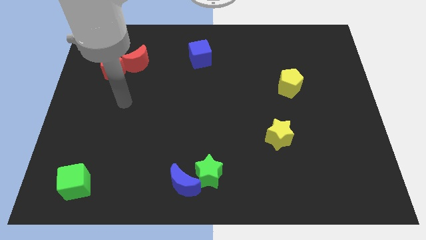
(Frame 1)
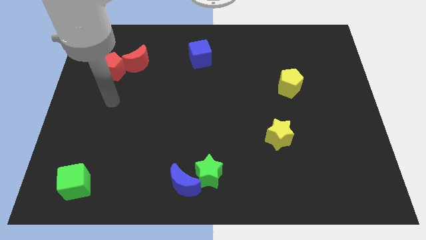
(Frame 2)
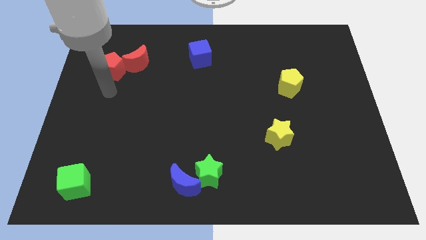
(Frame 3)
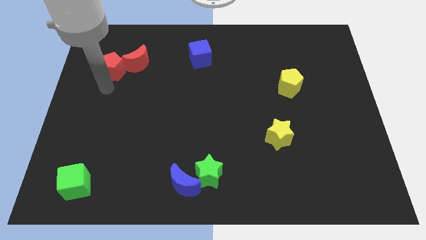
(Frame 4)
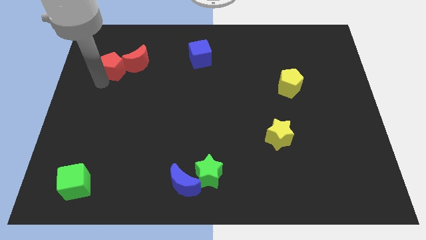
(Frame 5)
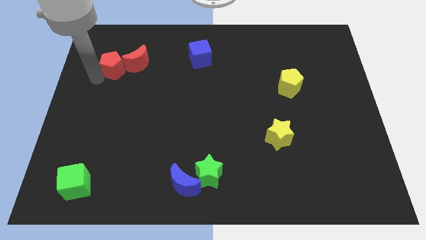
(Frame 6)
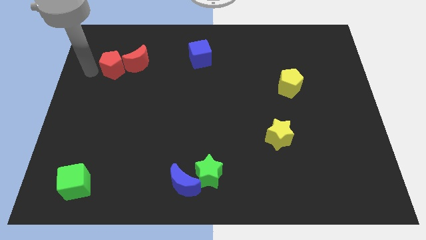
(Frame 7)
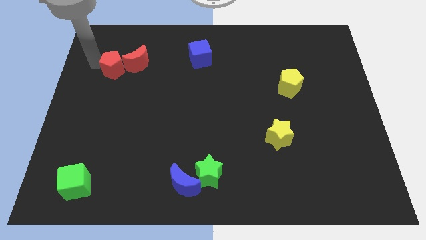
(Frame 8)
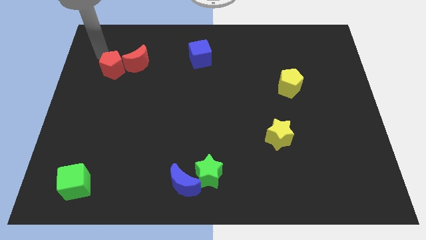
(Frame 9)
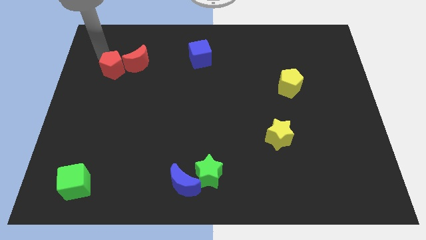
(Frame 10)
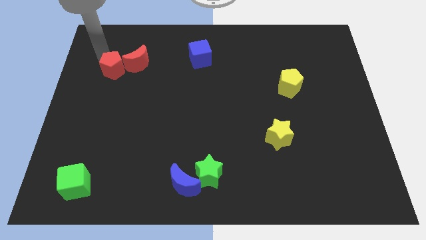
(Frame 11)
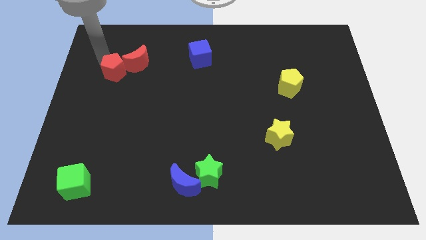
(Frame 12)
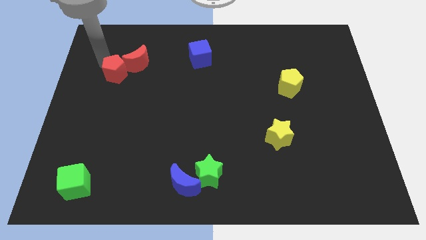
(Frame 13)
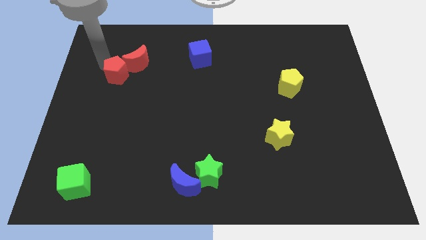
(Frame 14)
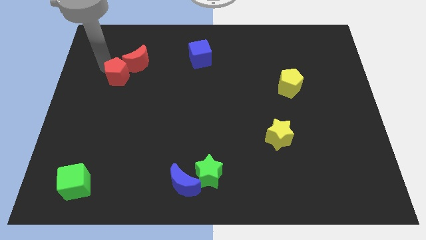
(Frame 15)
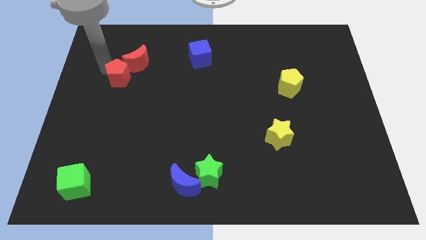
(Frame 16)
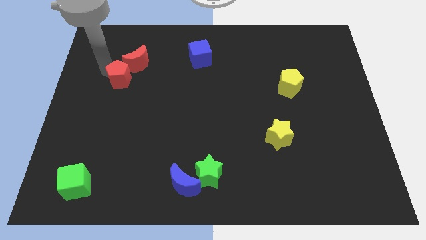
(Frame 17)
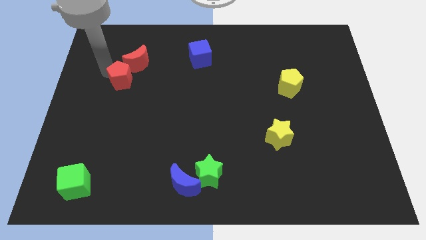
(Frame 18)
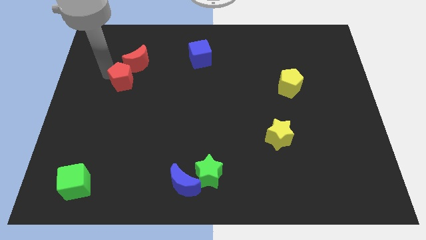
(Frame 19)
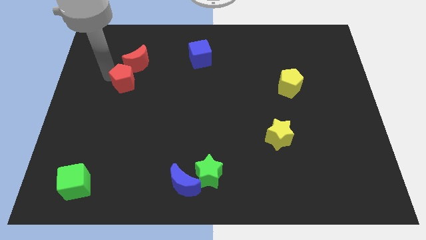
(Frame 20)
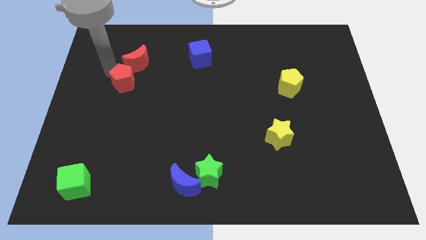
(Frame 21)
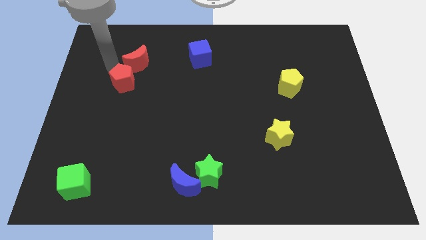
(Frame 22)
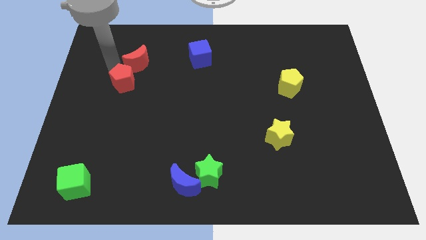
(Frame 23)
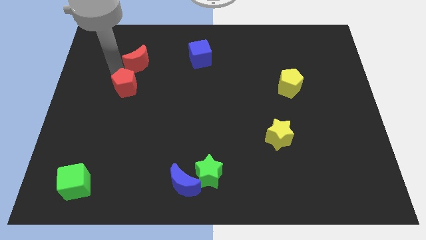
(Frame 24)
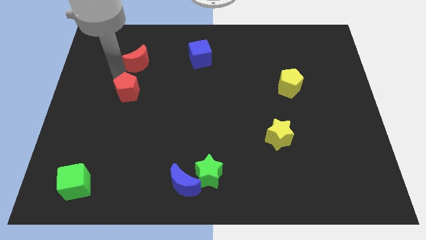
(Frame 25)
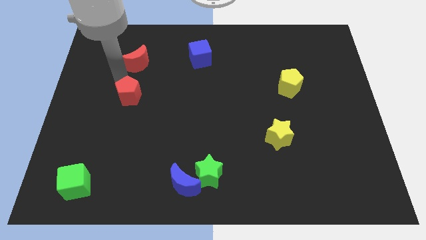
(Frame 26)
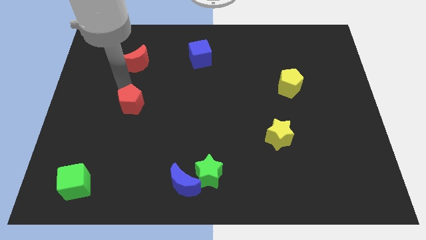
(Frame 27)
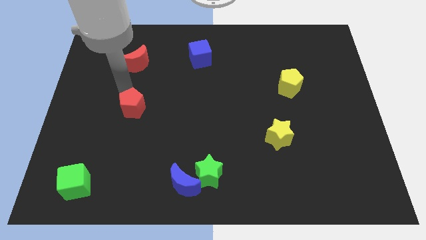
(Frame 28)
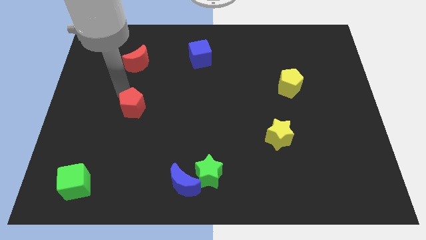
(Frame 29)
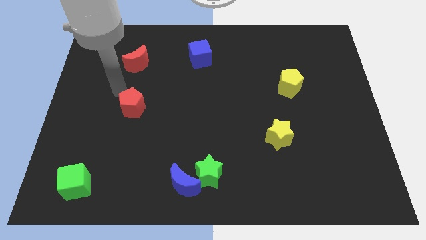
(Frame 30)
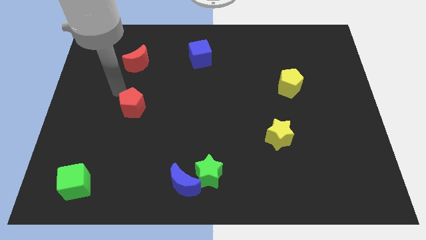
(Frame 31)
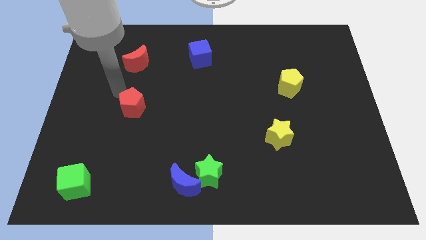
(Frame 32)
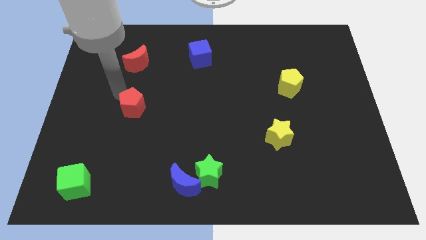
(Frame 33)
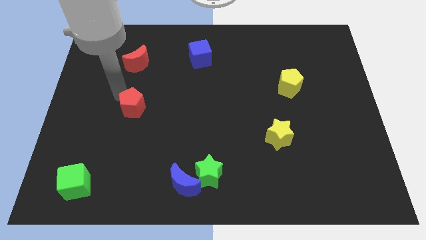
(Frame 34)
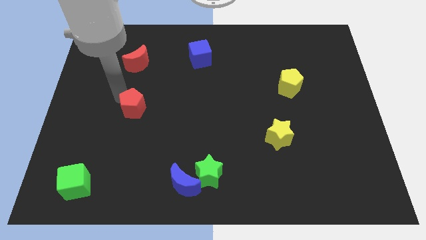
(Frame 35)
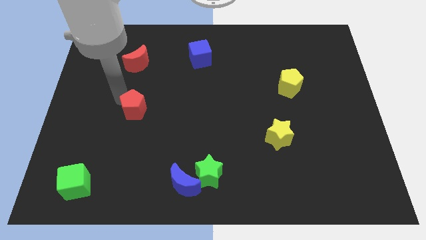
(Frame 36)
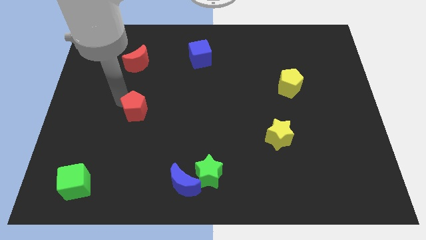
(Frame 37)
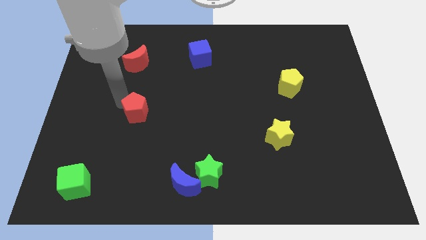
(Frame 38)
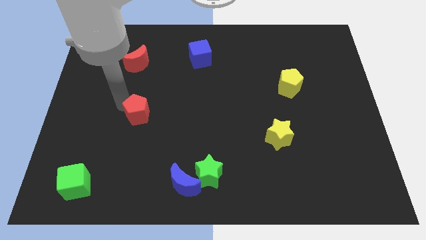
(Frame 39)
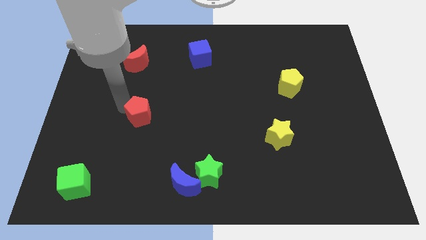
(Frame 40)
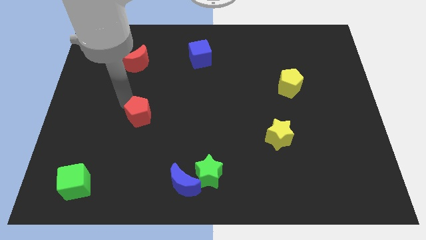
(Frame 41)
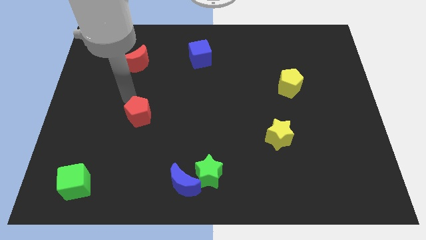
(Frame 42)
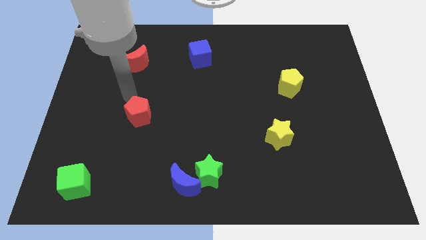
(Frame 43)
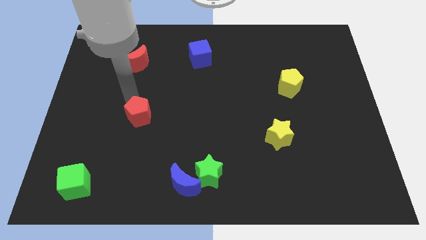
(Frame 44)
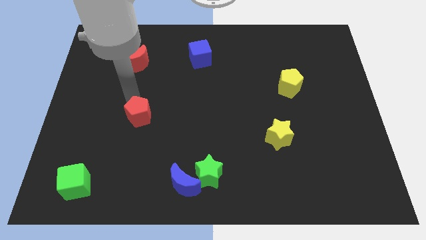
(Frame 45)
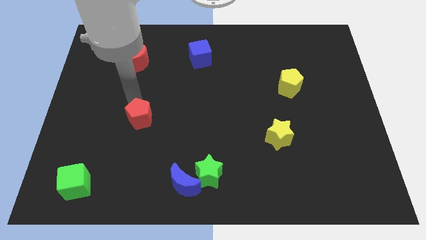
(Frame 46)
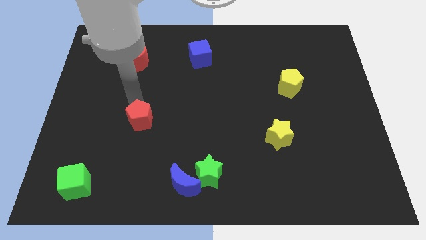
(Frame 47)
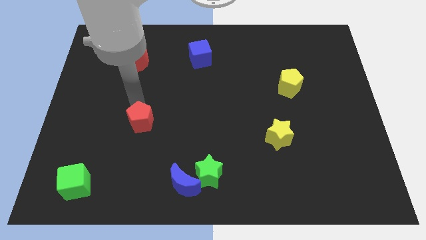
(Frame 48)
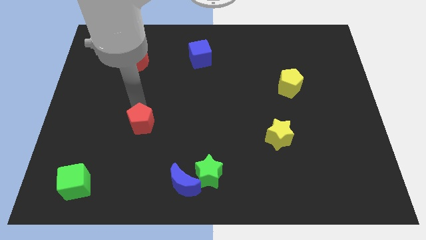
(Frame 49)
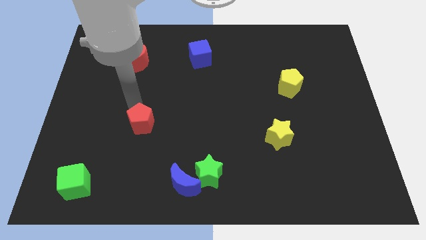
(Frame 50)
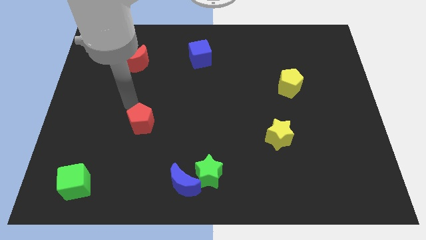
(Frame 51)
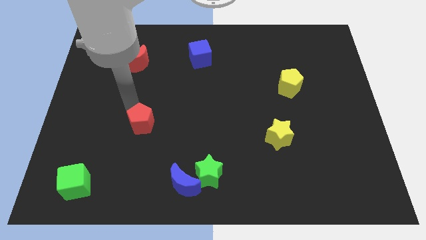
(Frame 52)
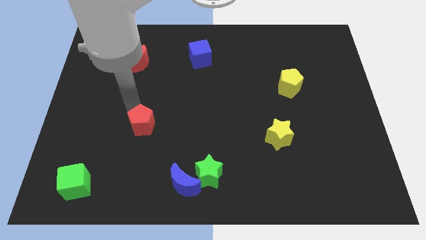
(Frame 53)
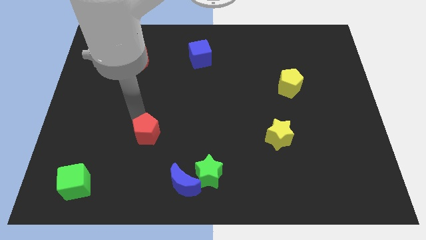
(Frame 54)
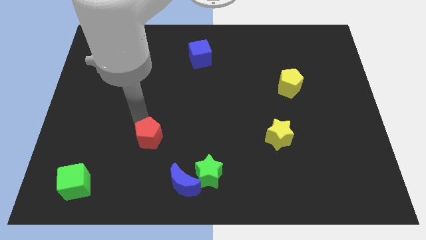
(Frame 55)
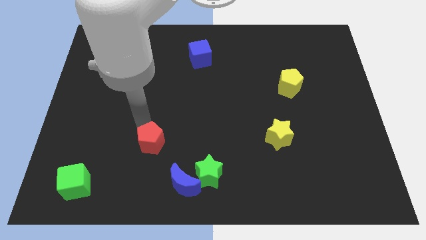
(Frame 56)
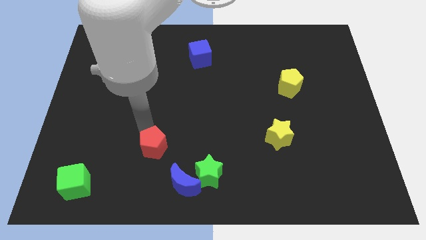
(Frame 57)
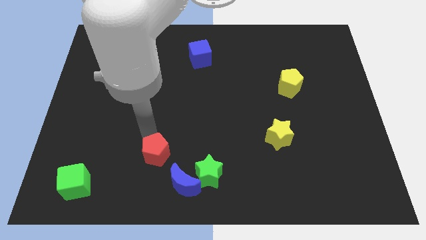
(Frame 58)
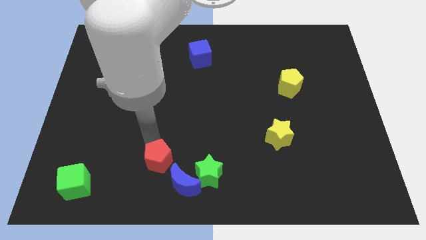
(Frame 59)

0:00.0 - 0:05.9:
put the red pentagon to the left side of the green star

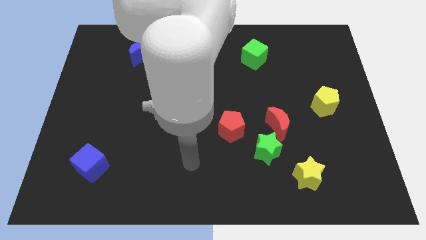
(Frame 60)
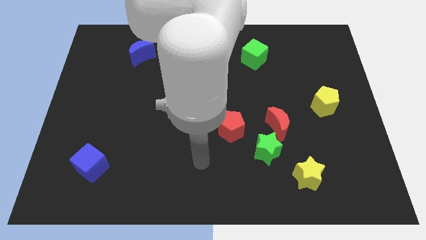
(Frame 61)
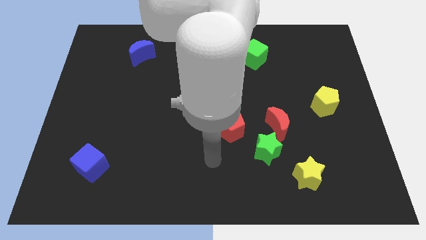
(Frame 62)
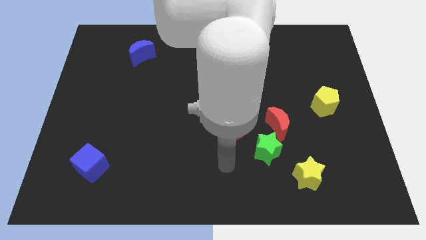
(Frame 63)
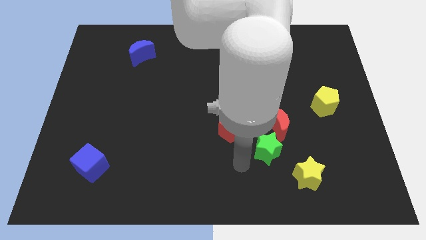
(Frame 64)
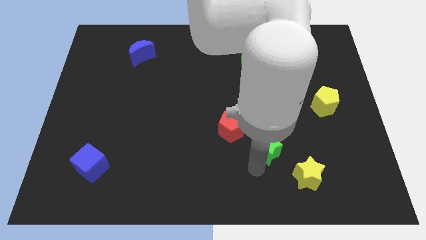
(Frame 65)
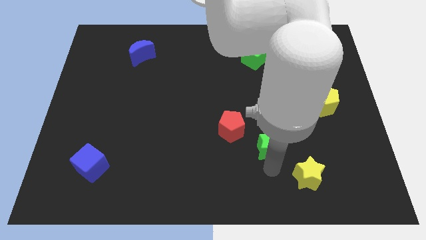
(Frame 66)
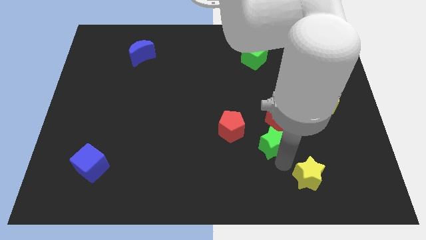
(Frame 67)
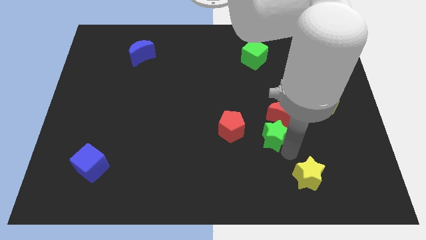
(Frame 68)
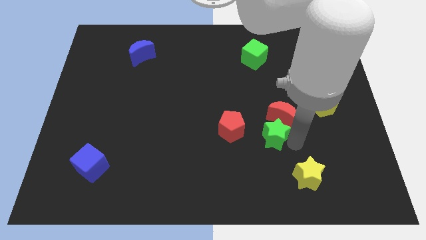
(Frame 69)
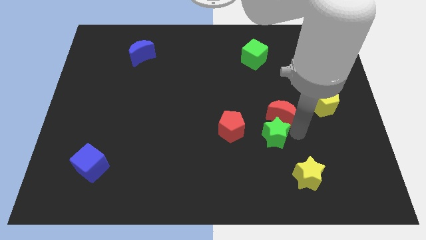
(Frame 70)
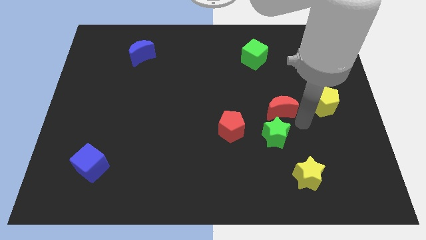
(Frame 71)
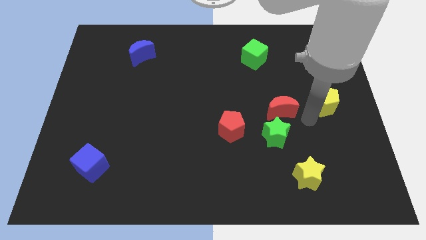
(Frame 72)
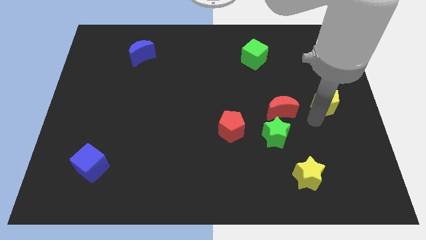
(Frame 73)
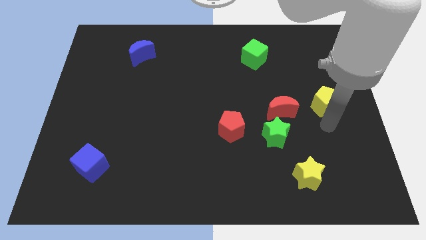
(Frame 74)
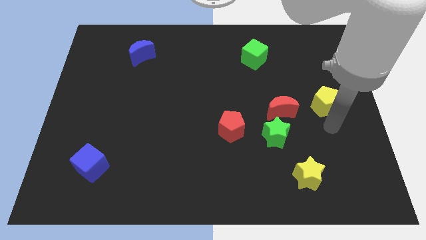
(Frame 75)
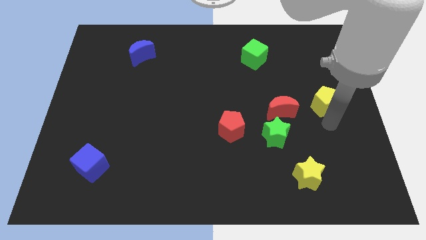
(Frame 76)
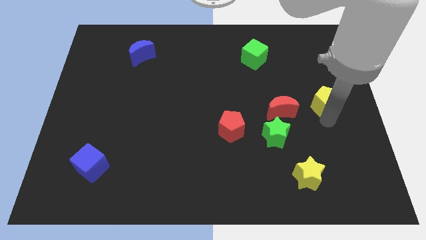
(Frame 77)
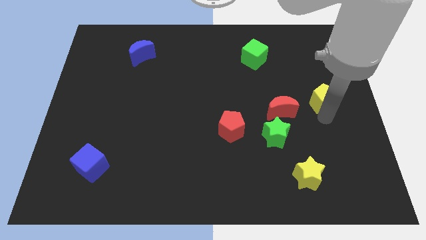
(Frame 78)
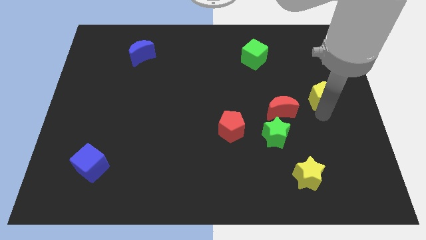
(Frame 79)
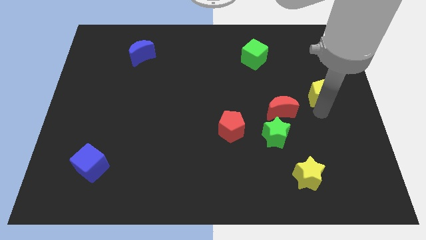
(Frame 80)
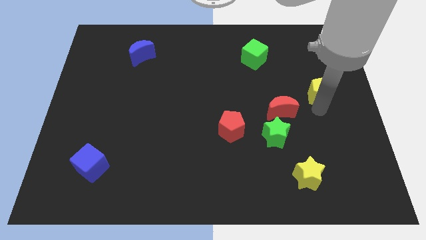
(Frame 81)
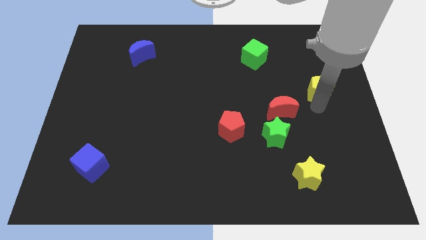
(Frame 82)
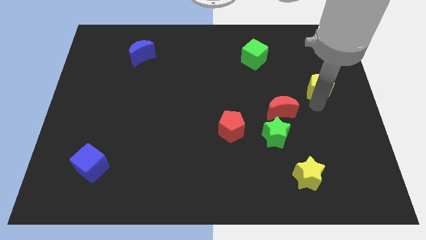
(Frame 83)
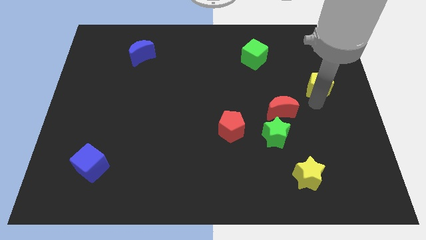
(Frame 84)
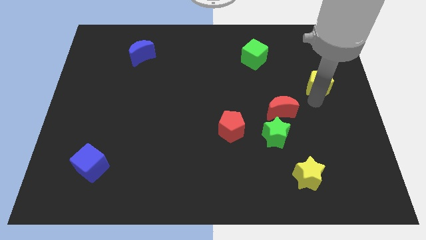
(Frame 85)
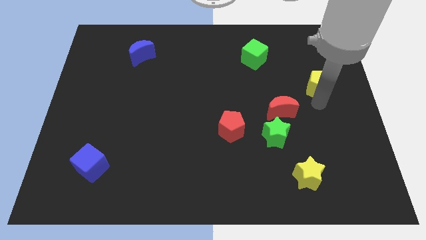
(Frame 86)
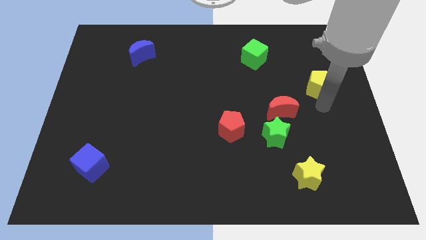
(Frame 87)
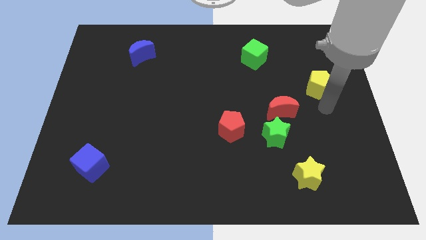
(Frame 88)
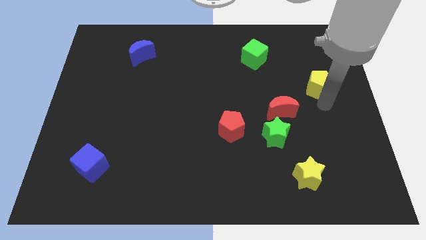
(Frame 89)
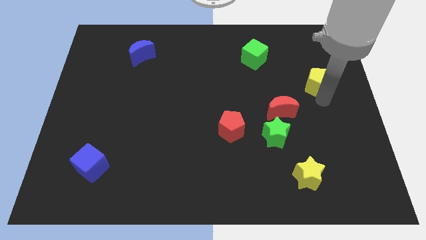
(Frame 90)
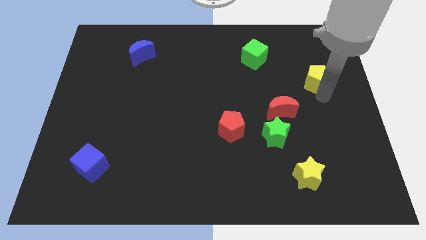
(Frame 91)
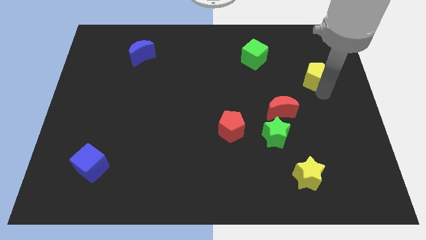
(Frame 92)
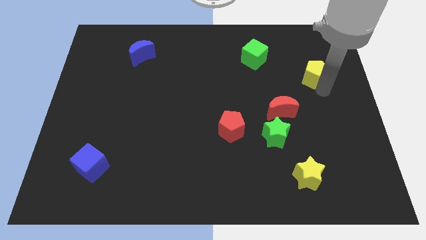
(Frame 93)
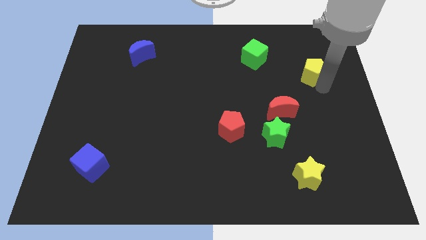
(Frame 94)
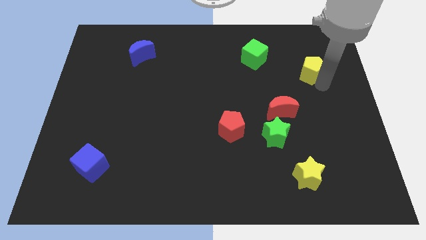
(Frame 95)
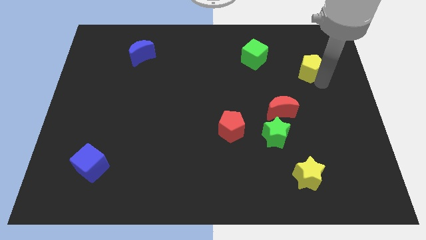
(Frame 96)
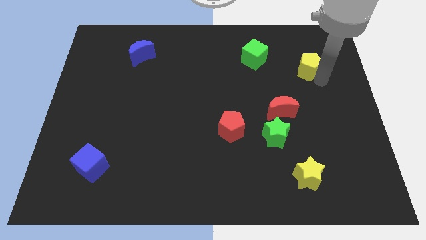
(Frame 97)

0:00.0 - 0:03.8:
slide the yellow pentagon just right of the green cube
